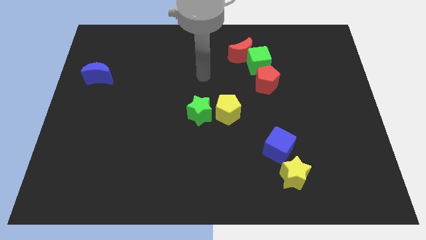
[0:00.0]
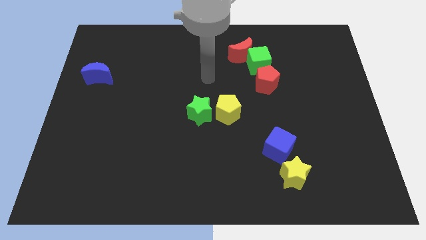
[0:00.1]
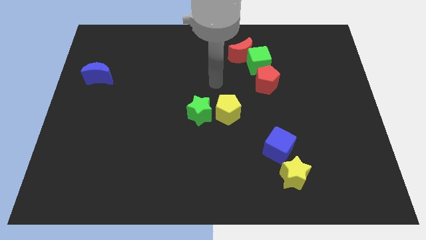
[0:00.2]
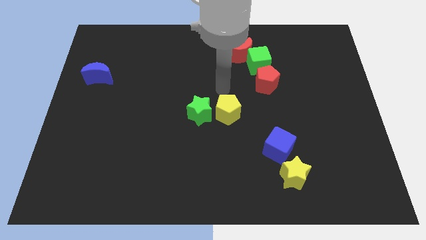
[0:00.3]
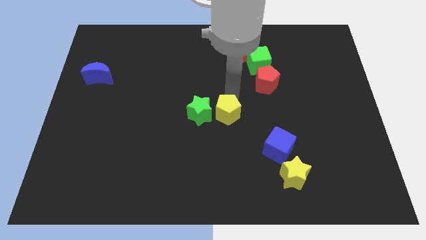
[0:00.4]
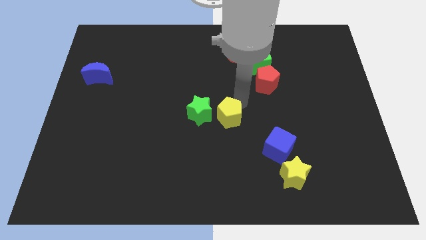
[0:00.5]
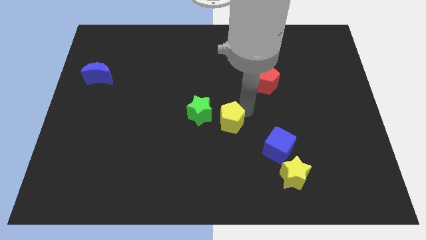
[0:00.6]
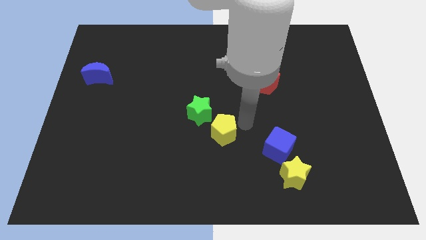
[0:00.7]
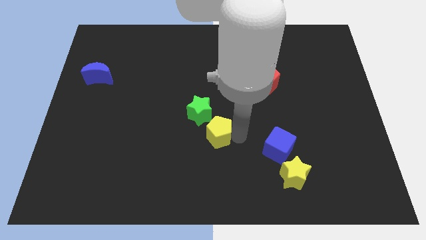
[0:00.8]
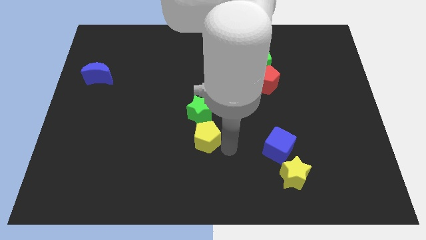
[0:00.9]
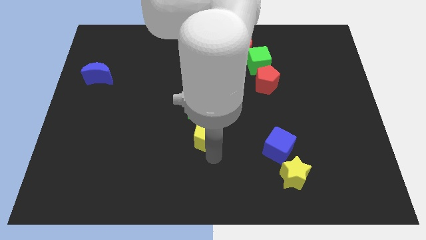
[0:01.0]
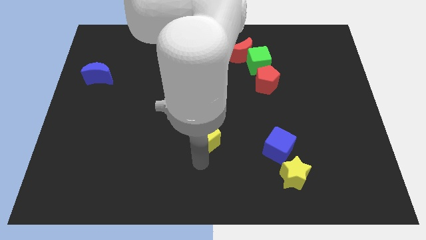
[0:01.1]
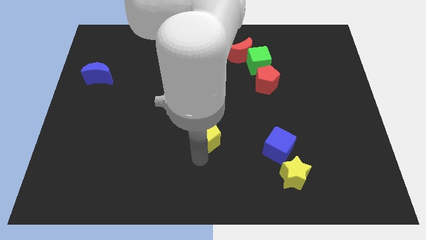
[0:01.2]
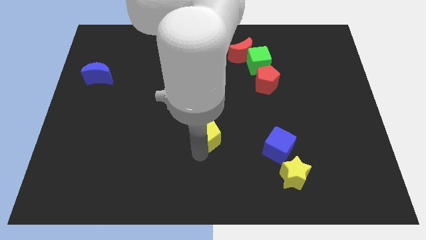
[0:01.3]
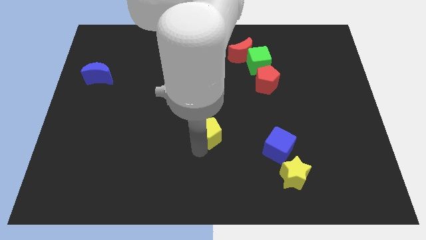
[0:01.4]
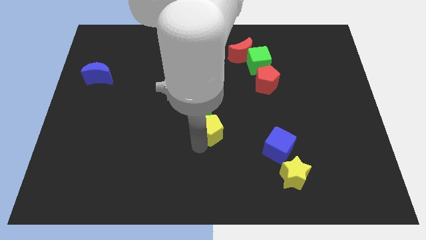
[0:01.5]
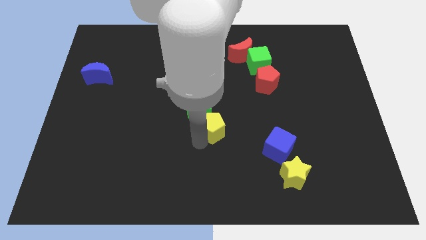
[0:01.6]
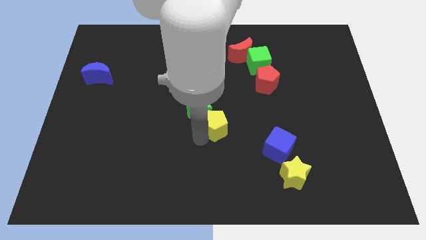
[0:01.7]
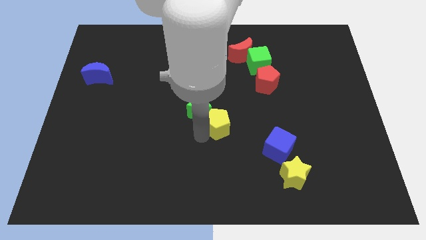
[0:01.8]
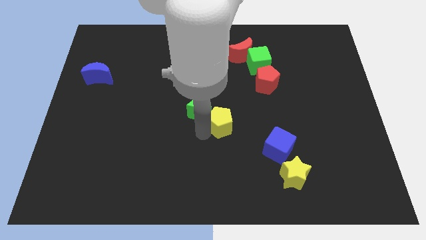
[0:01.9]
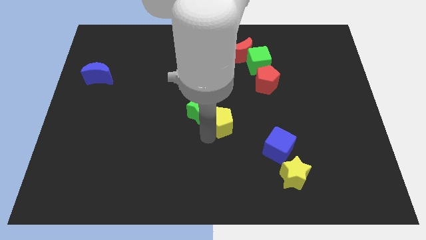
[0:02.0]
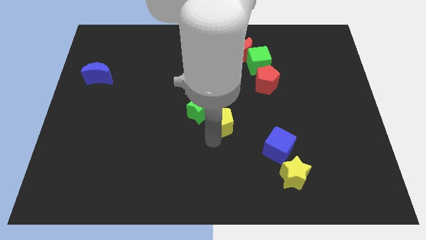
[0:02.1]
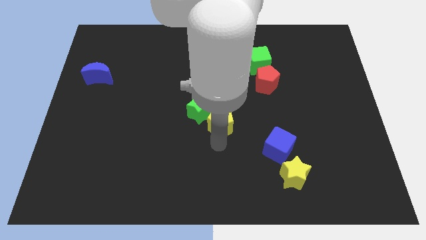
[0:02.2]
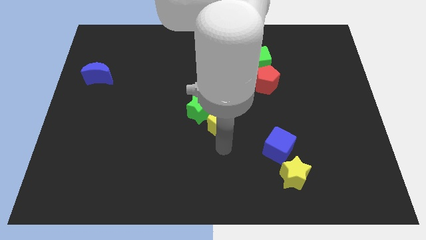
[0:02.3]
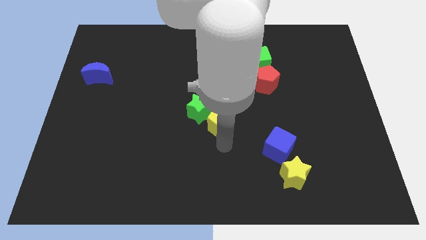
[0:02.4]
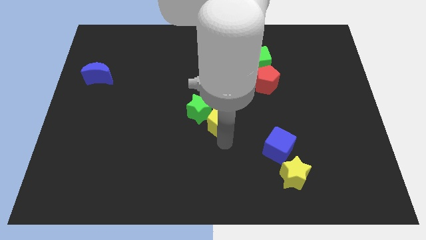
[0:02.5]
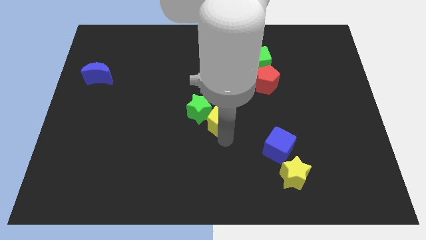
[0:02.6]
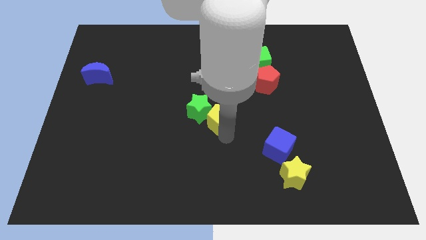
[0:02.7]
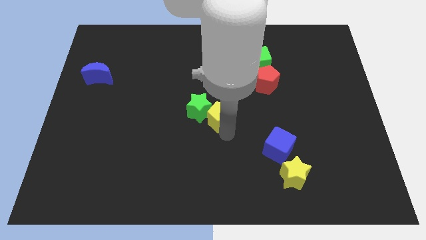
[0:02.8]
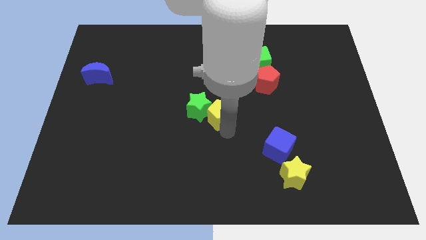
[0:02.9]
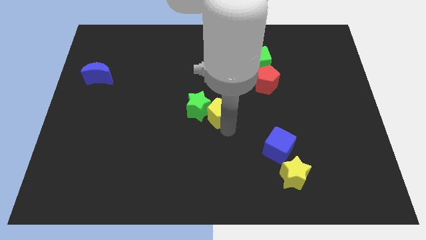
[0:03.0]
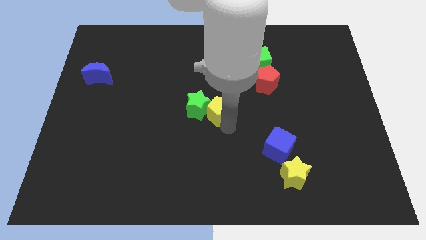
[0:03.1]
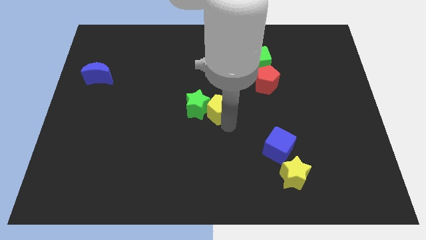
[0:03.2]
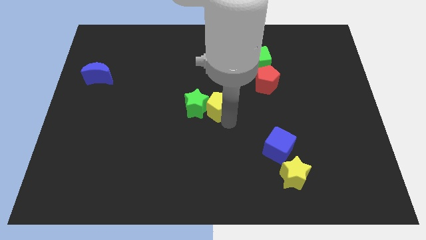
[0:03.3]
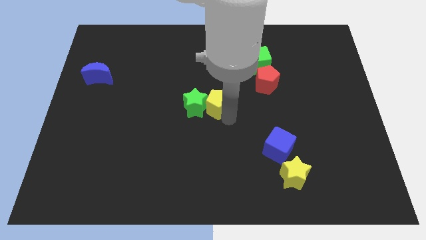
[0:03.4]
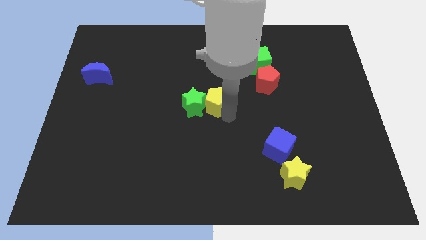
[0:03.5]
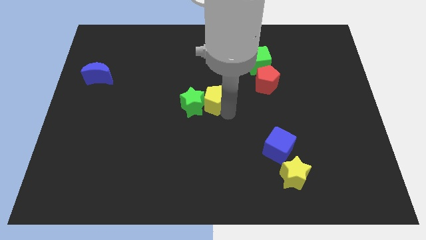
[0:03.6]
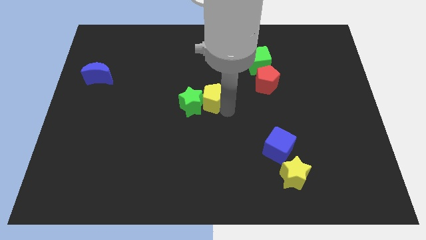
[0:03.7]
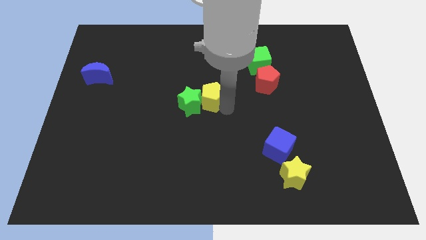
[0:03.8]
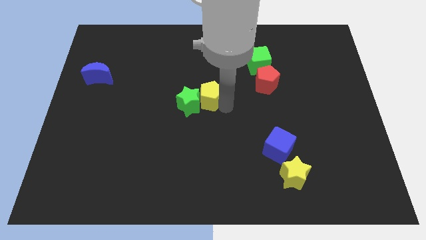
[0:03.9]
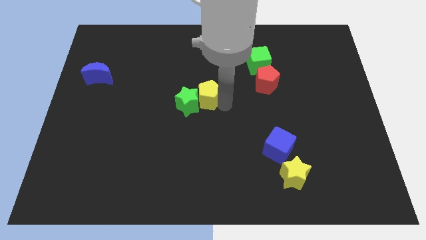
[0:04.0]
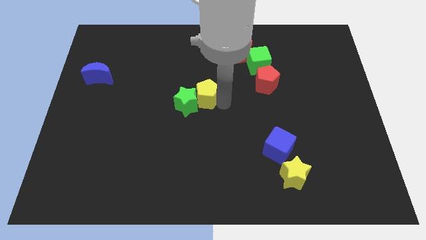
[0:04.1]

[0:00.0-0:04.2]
slightly move the yellow pentagon upwards and then to the left

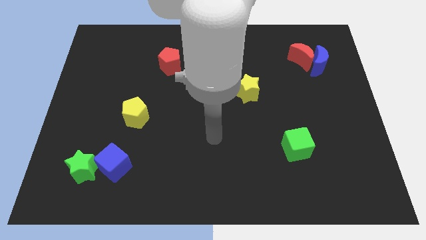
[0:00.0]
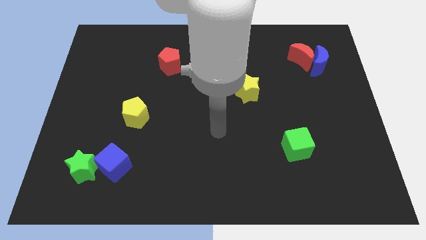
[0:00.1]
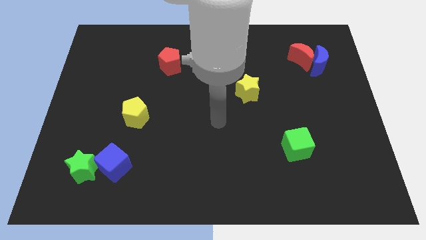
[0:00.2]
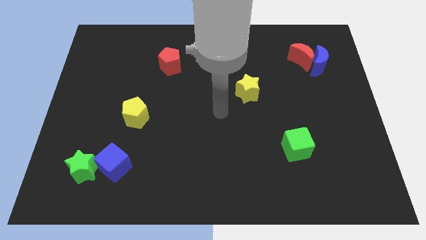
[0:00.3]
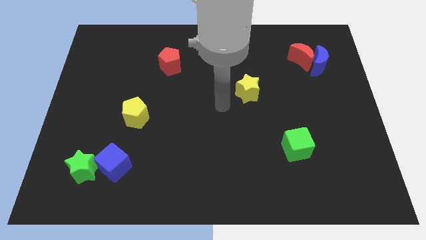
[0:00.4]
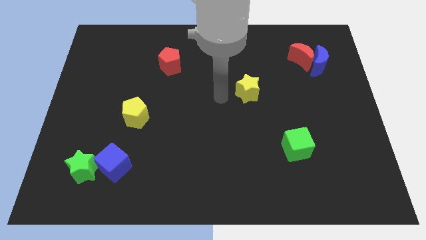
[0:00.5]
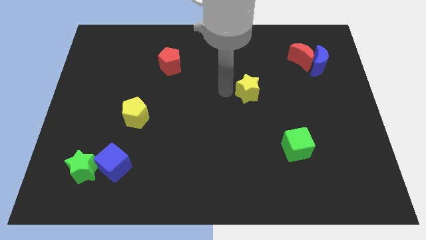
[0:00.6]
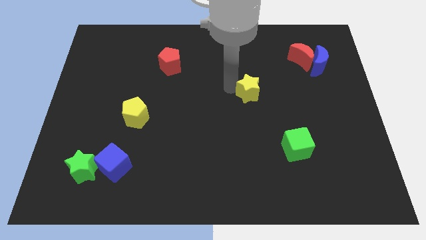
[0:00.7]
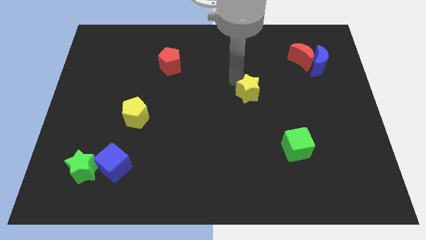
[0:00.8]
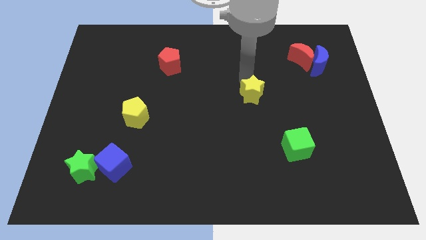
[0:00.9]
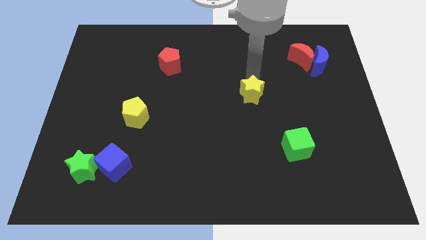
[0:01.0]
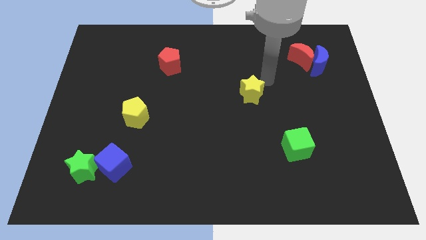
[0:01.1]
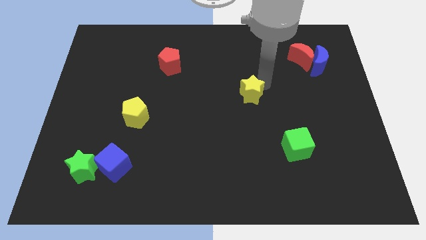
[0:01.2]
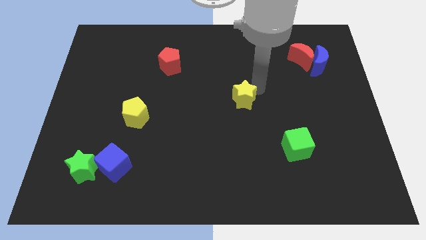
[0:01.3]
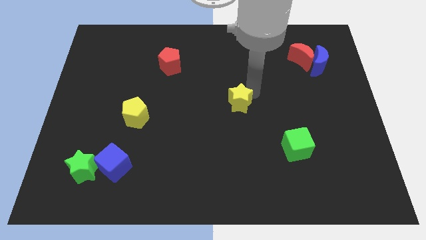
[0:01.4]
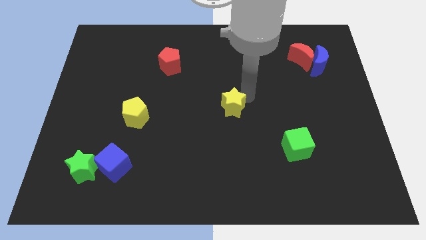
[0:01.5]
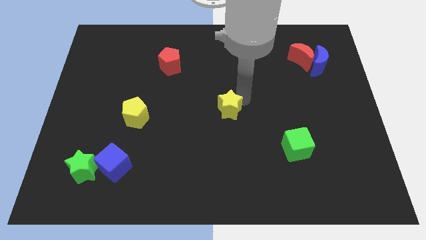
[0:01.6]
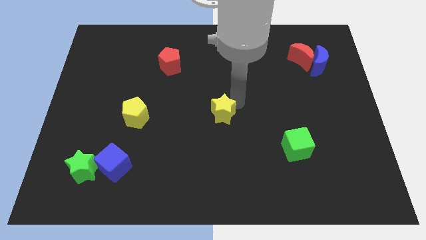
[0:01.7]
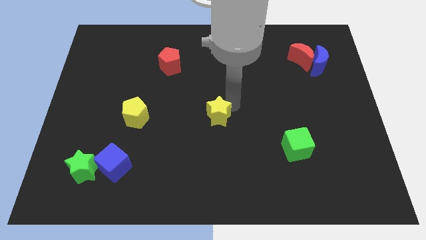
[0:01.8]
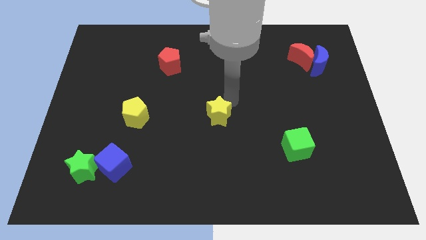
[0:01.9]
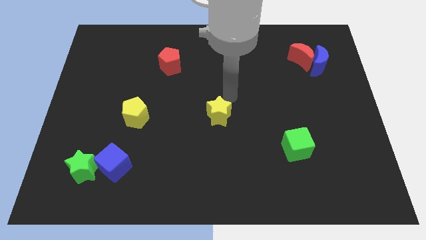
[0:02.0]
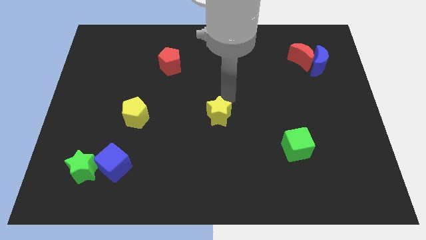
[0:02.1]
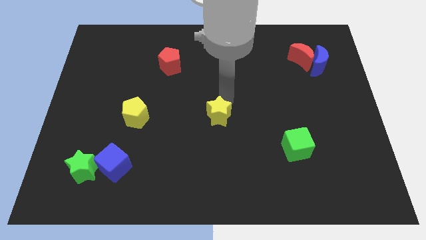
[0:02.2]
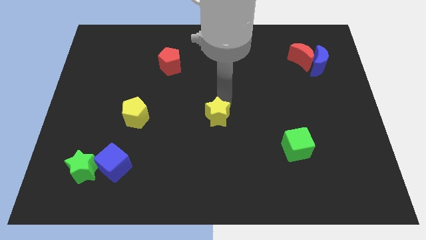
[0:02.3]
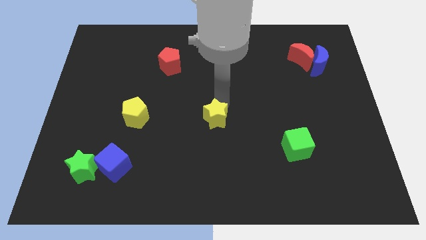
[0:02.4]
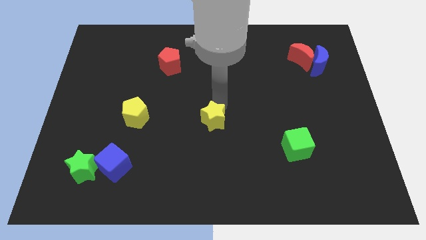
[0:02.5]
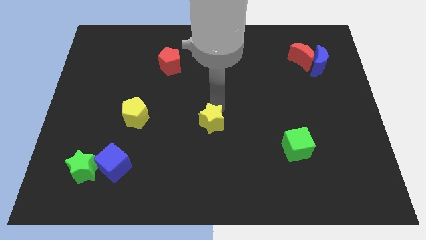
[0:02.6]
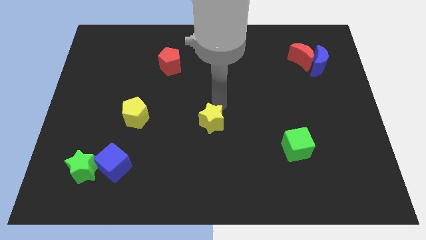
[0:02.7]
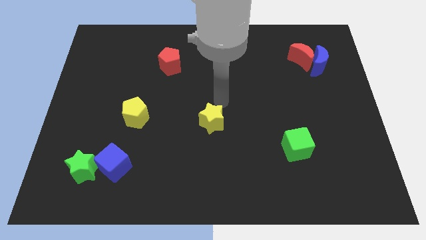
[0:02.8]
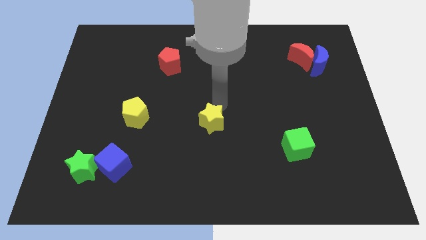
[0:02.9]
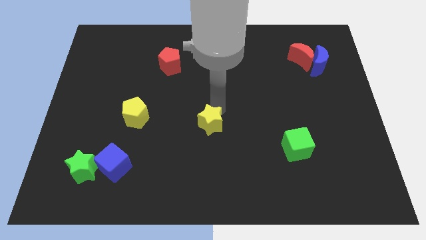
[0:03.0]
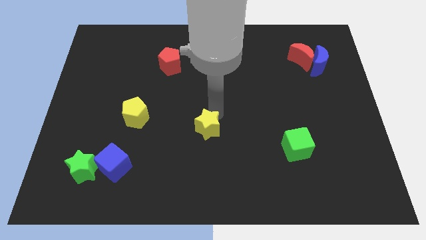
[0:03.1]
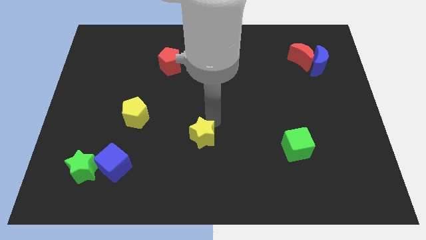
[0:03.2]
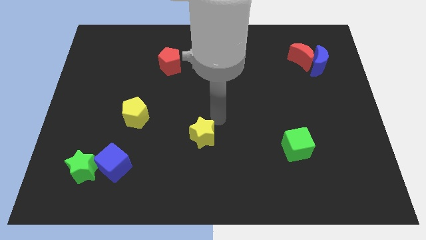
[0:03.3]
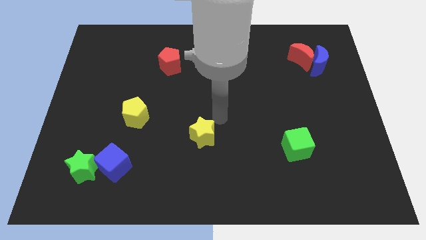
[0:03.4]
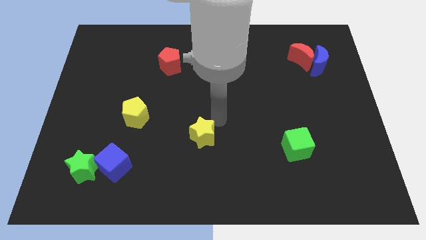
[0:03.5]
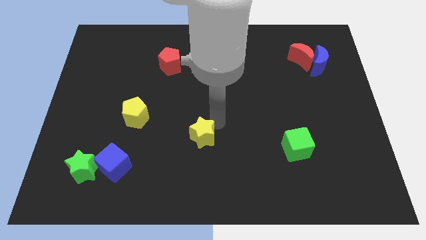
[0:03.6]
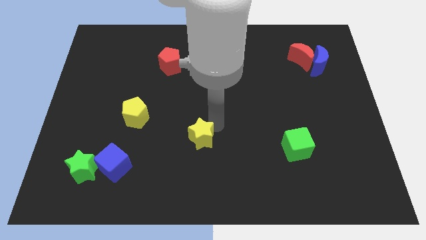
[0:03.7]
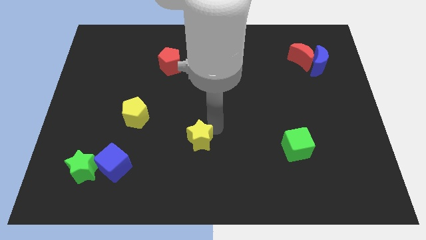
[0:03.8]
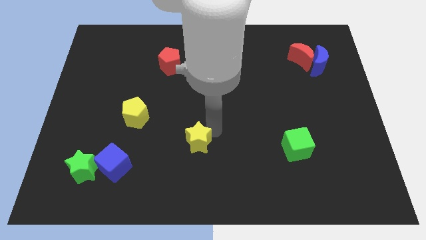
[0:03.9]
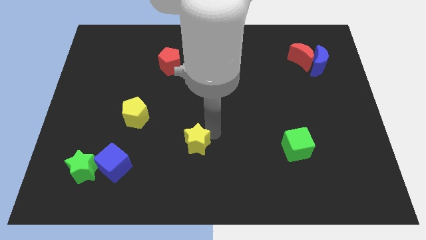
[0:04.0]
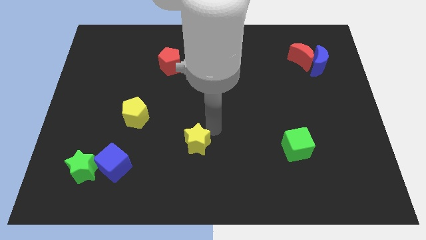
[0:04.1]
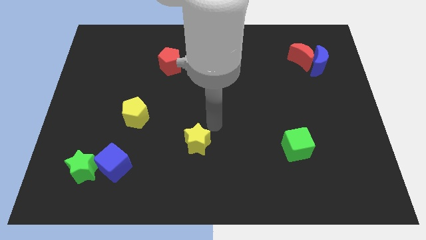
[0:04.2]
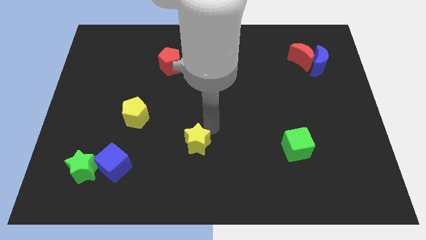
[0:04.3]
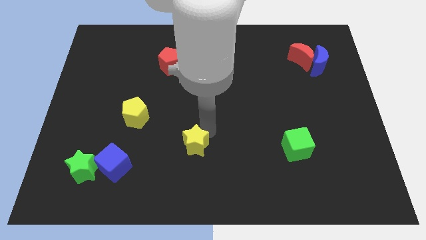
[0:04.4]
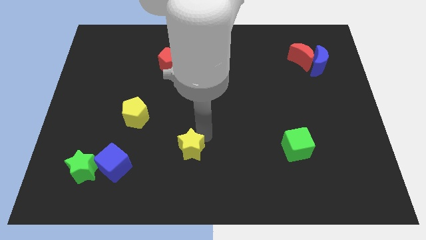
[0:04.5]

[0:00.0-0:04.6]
push the yellow star downwards and to the left
